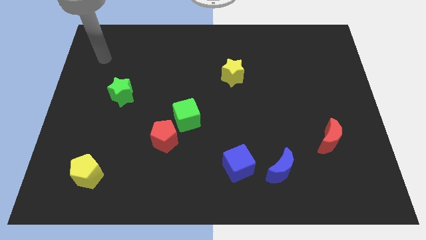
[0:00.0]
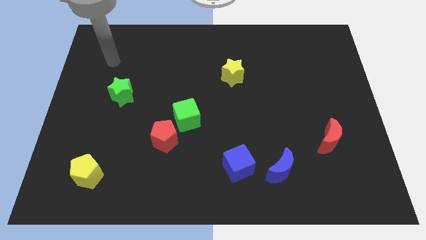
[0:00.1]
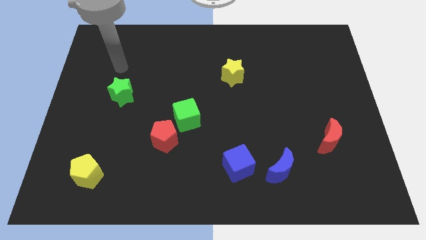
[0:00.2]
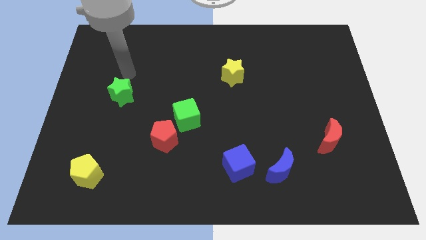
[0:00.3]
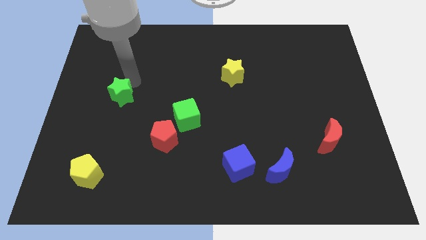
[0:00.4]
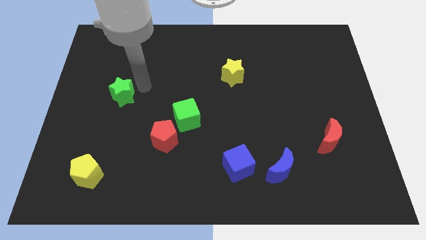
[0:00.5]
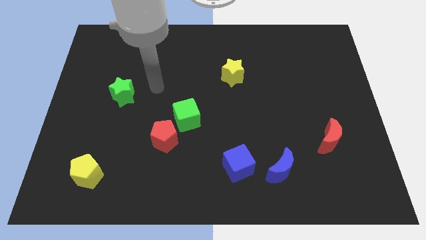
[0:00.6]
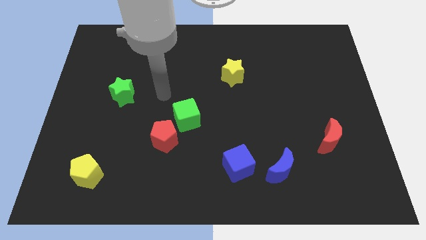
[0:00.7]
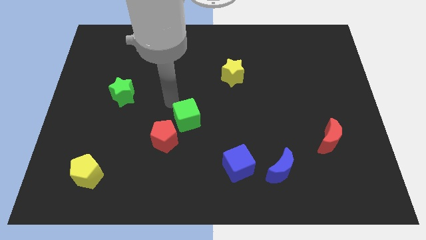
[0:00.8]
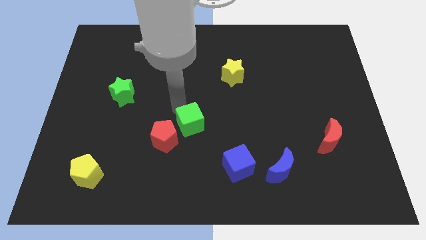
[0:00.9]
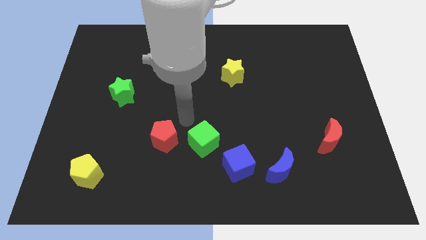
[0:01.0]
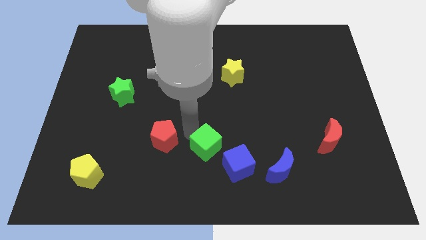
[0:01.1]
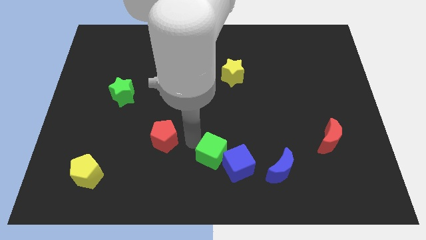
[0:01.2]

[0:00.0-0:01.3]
separate the red pentagon from the green cube

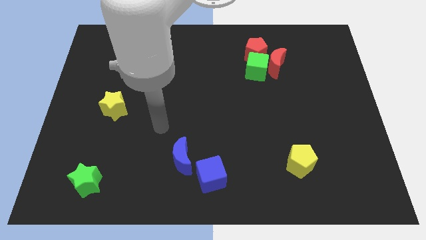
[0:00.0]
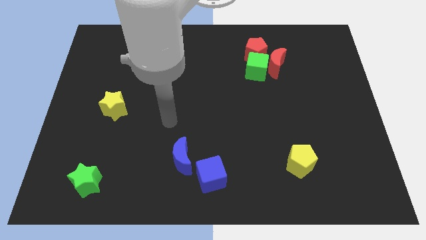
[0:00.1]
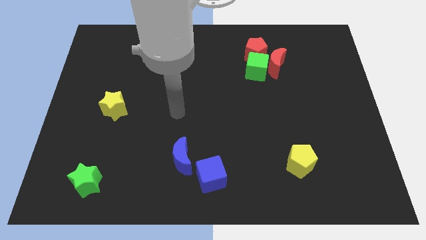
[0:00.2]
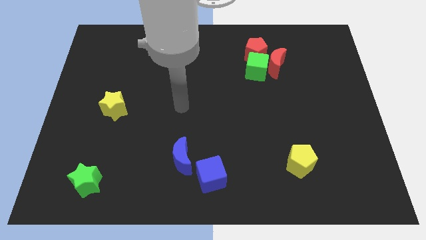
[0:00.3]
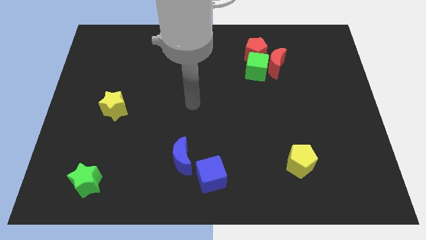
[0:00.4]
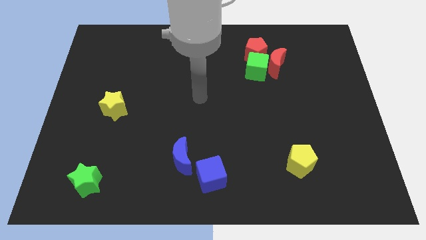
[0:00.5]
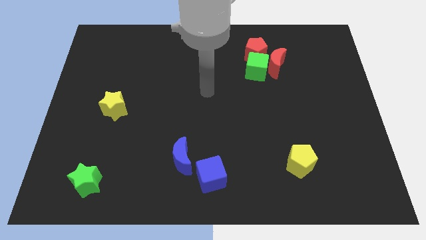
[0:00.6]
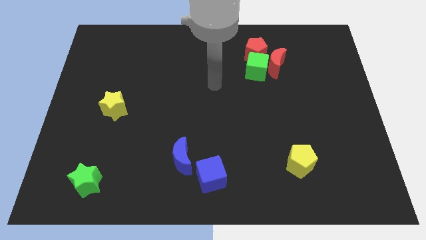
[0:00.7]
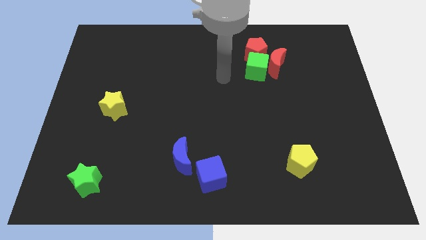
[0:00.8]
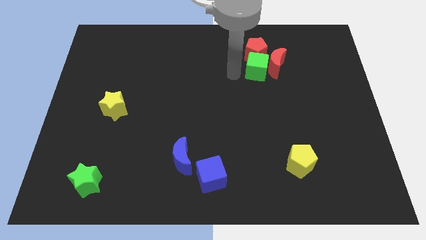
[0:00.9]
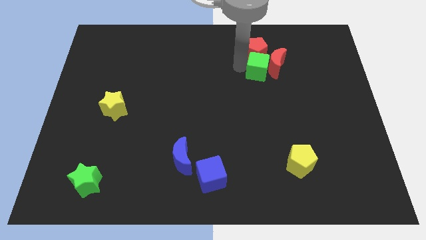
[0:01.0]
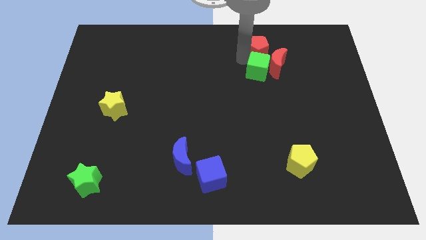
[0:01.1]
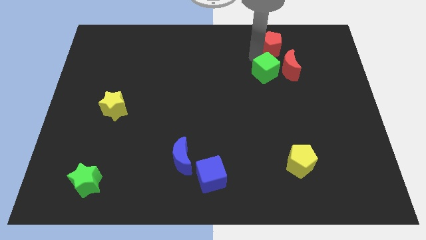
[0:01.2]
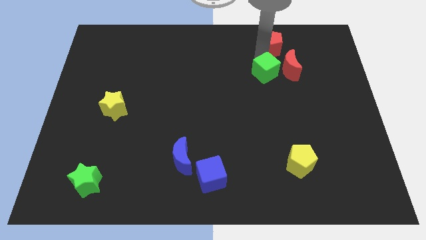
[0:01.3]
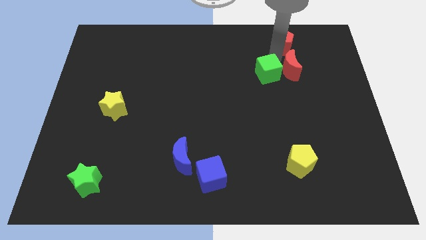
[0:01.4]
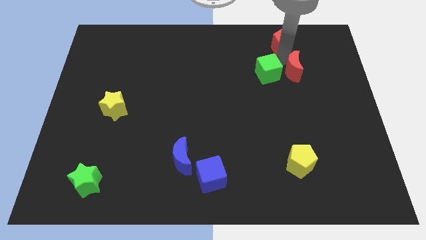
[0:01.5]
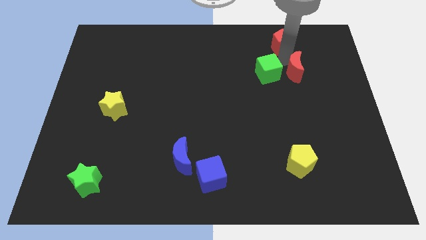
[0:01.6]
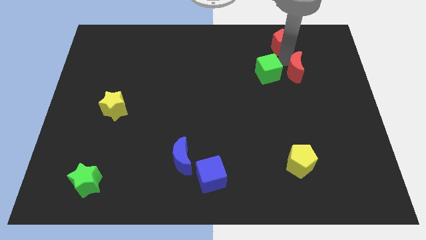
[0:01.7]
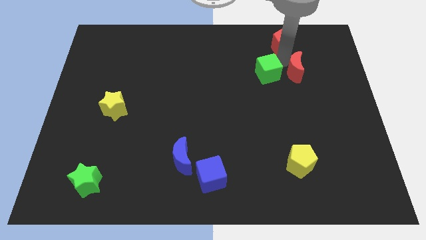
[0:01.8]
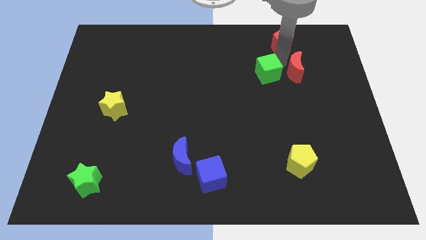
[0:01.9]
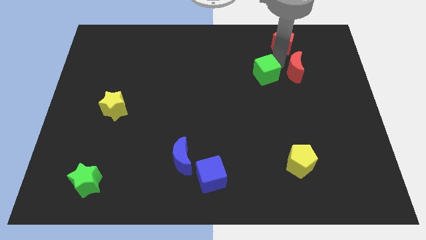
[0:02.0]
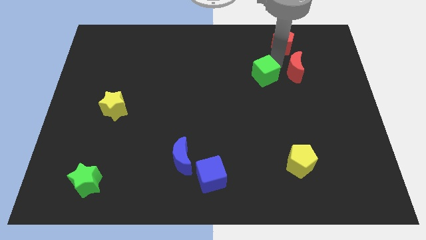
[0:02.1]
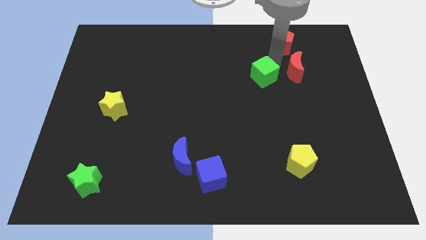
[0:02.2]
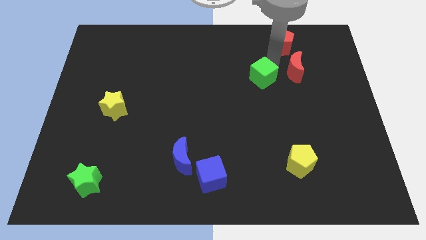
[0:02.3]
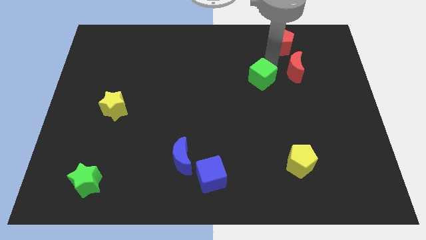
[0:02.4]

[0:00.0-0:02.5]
separate the green cube from the red moon and red pentagon

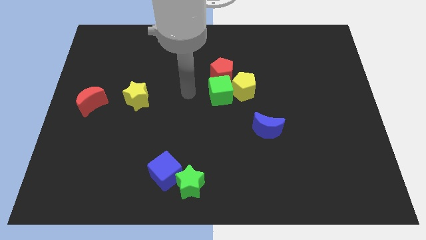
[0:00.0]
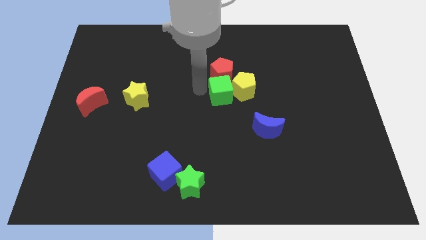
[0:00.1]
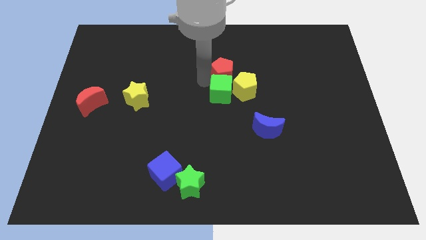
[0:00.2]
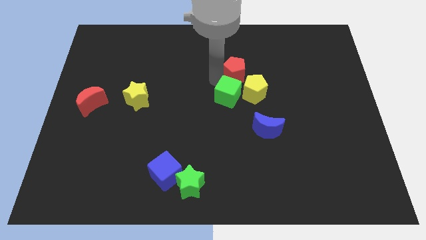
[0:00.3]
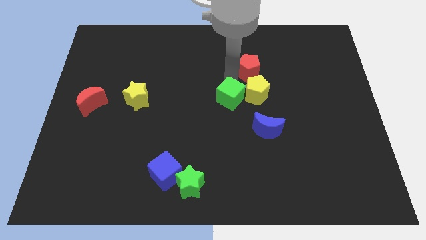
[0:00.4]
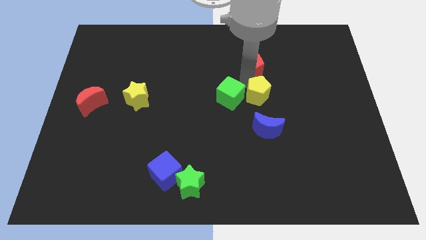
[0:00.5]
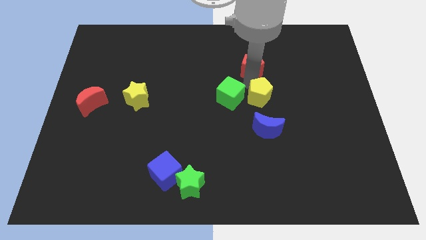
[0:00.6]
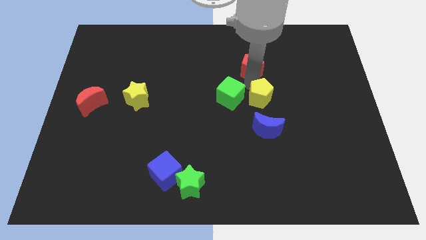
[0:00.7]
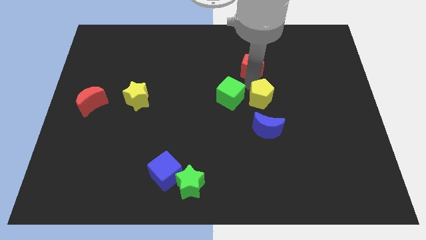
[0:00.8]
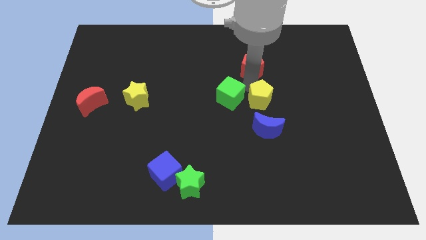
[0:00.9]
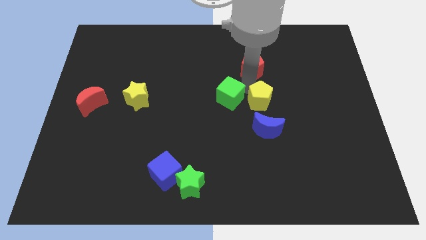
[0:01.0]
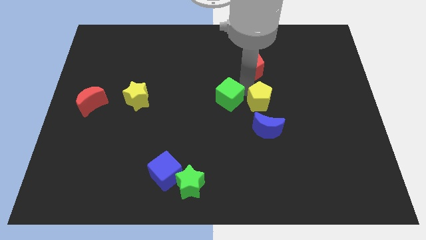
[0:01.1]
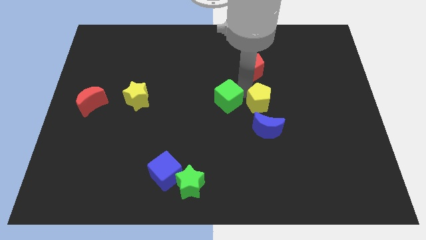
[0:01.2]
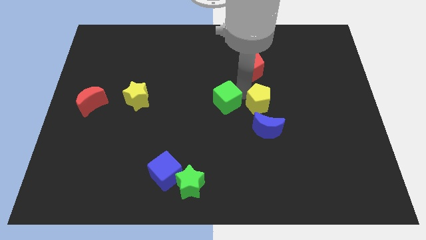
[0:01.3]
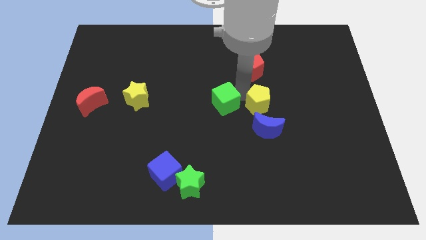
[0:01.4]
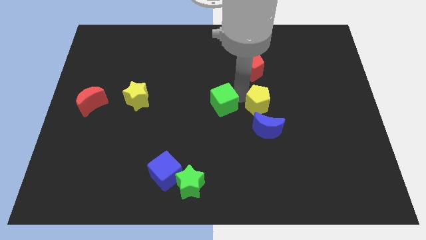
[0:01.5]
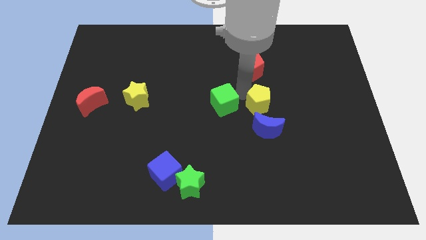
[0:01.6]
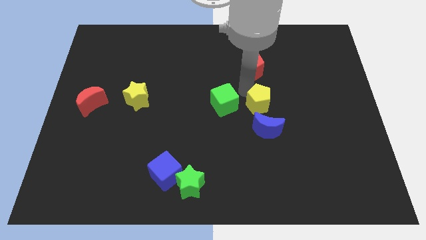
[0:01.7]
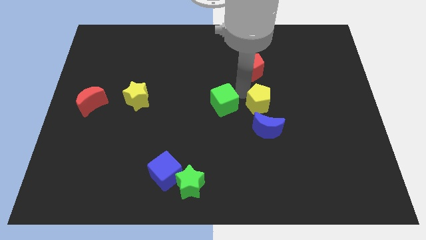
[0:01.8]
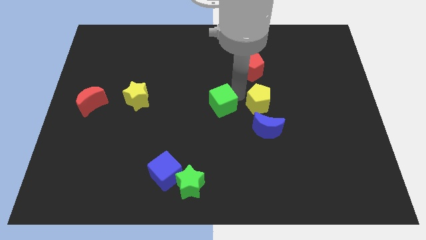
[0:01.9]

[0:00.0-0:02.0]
separate the green cube from the yellow pentagon and red pentagon

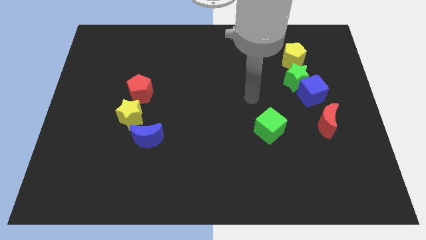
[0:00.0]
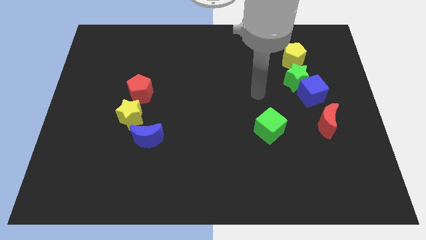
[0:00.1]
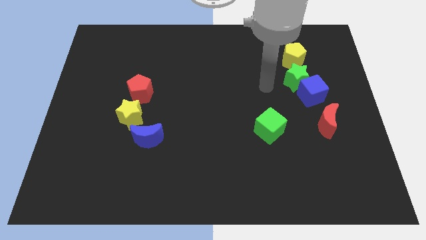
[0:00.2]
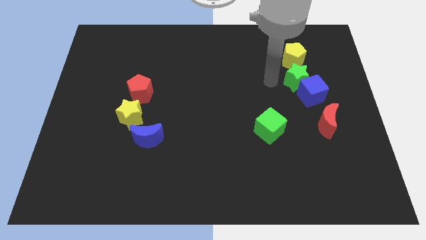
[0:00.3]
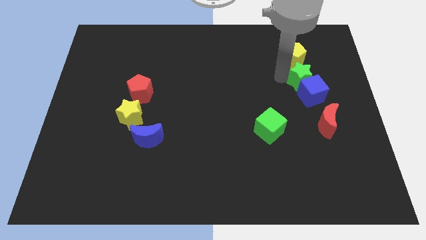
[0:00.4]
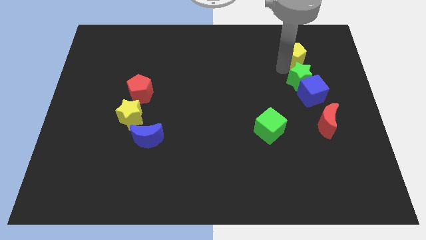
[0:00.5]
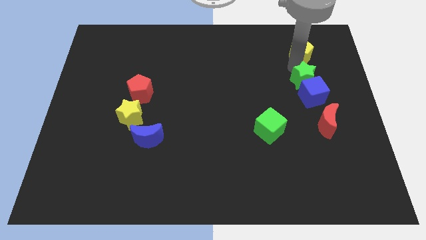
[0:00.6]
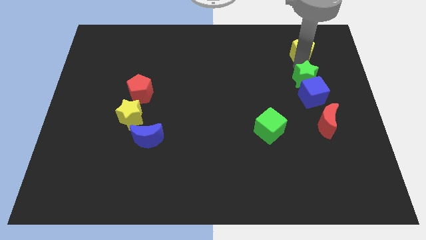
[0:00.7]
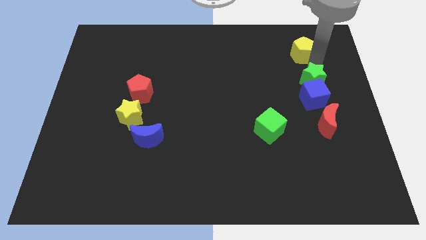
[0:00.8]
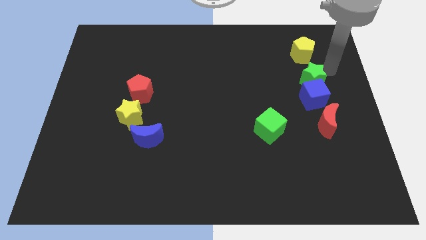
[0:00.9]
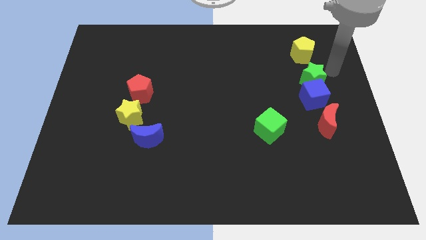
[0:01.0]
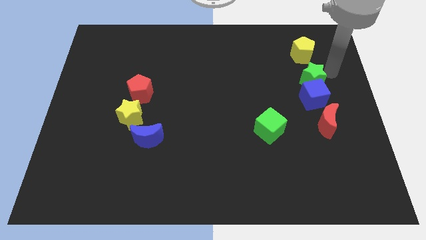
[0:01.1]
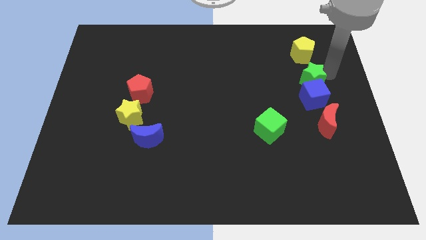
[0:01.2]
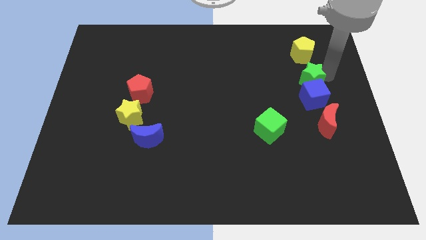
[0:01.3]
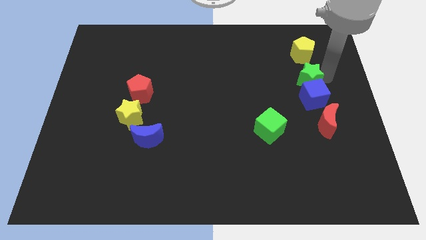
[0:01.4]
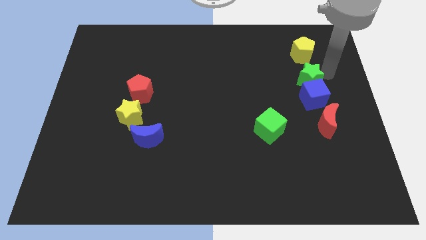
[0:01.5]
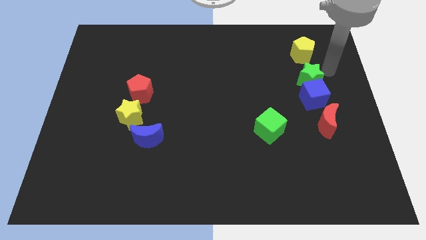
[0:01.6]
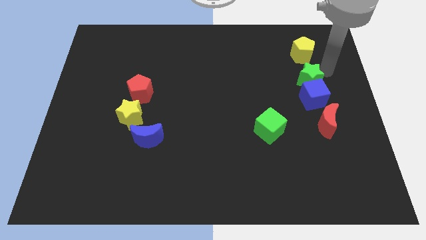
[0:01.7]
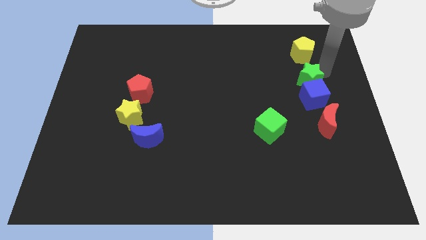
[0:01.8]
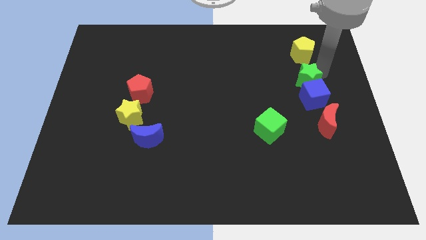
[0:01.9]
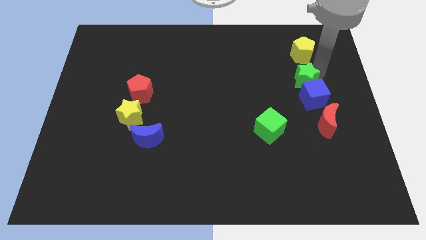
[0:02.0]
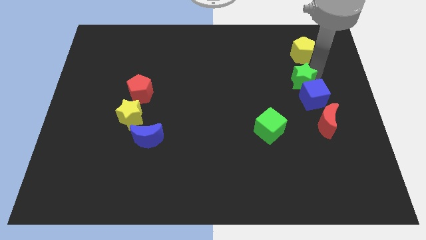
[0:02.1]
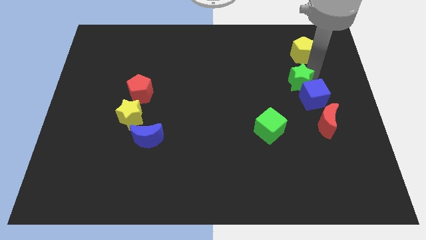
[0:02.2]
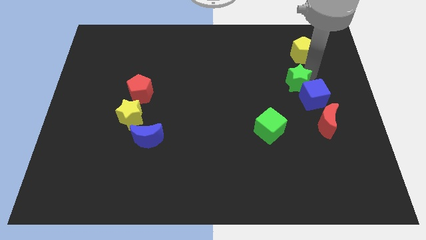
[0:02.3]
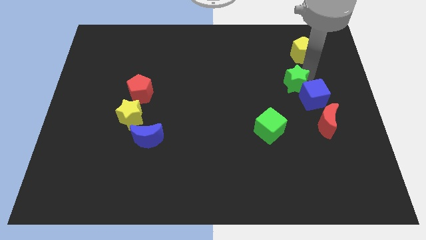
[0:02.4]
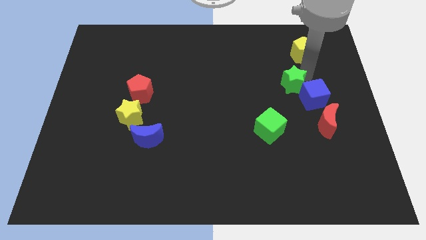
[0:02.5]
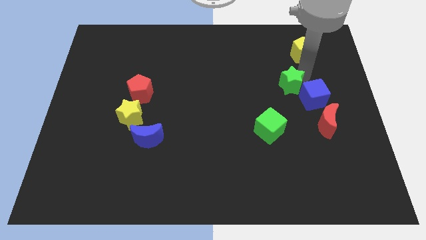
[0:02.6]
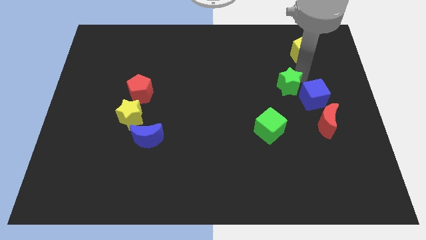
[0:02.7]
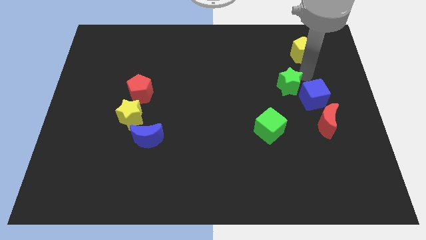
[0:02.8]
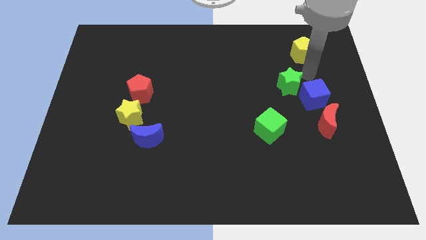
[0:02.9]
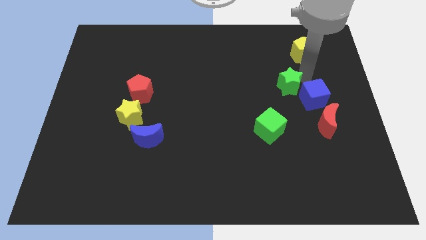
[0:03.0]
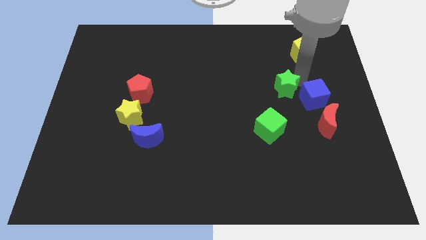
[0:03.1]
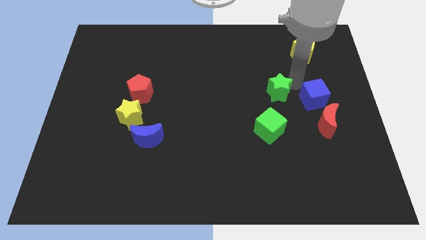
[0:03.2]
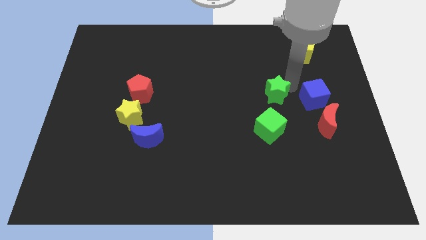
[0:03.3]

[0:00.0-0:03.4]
move the green star away from the blue cube and yellow pentagon

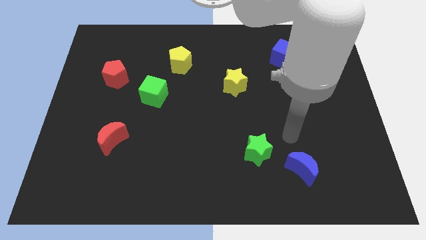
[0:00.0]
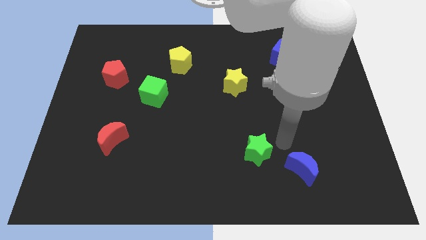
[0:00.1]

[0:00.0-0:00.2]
separate the blue moon from the green star
